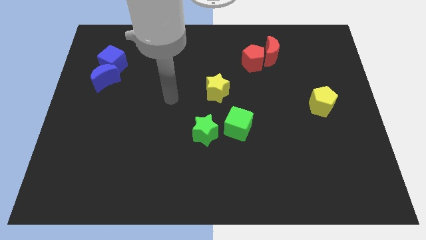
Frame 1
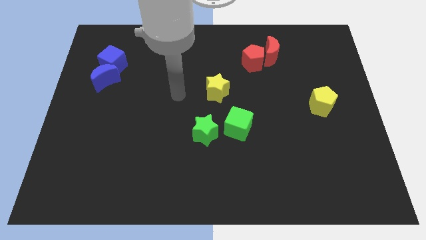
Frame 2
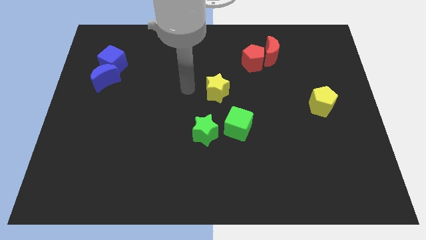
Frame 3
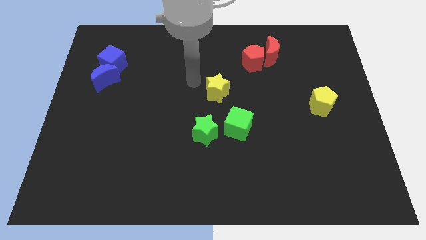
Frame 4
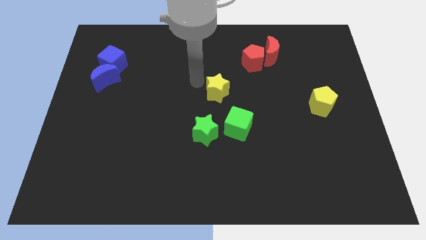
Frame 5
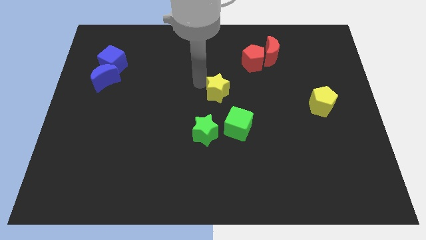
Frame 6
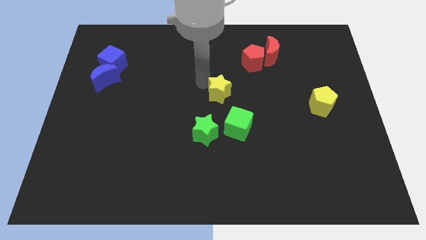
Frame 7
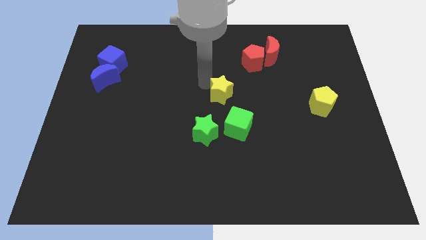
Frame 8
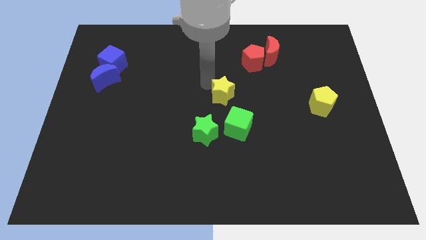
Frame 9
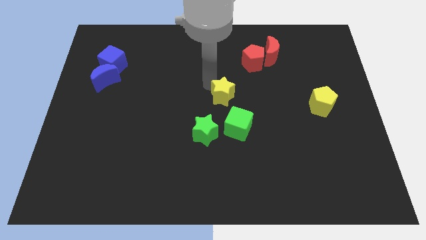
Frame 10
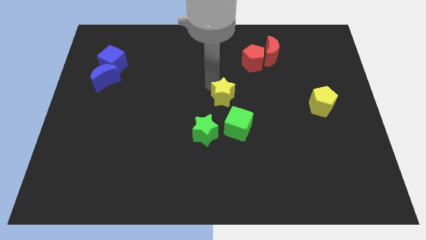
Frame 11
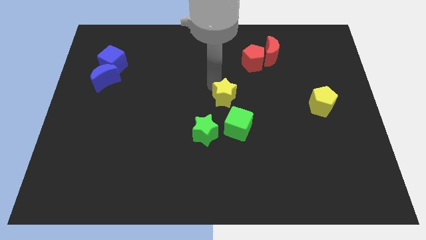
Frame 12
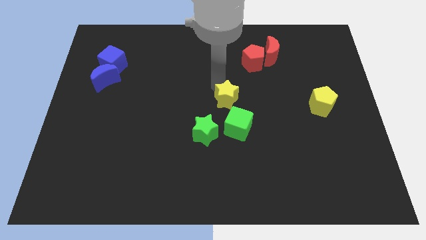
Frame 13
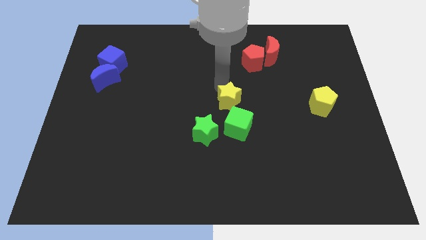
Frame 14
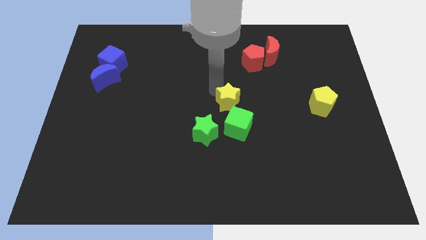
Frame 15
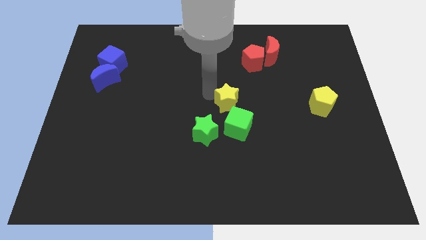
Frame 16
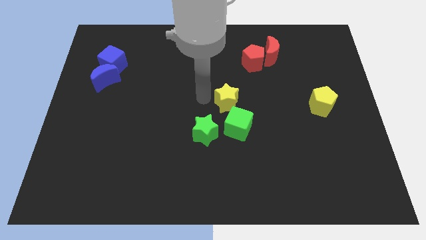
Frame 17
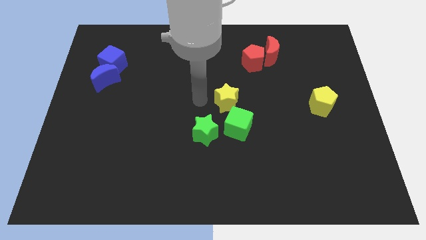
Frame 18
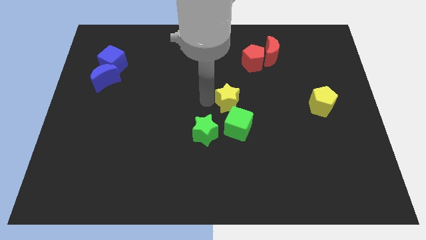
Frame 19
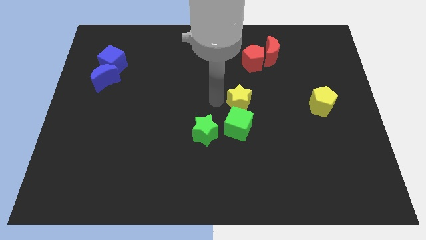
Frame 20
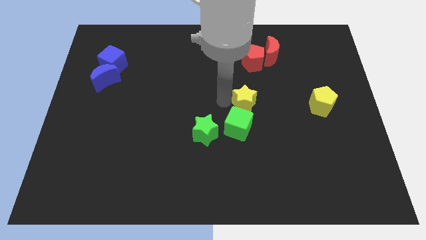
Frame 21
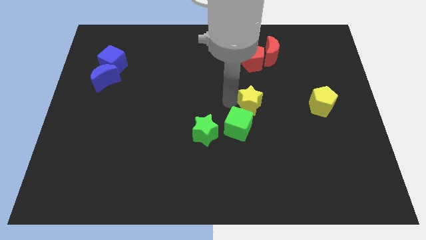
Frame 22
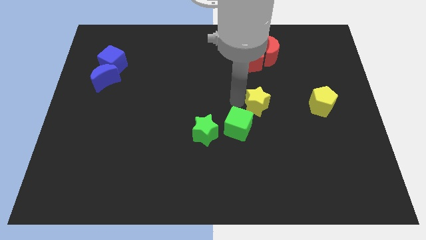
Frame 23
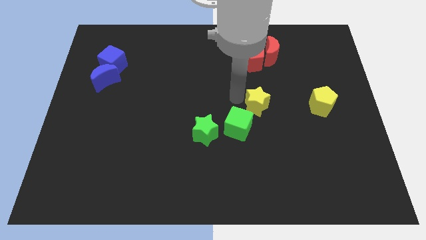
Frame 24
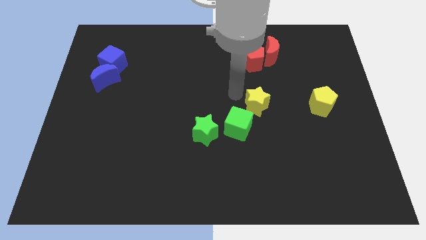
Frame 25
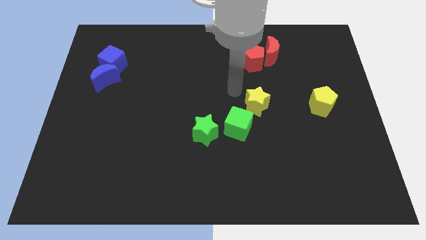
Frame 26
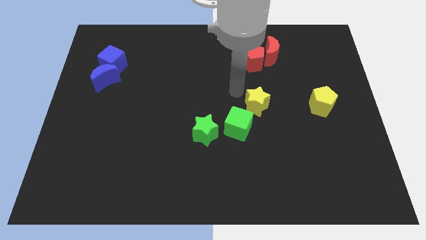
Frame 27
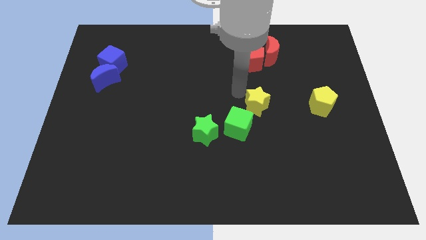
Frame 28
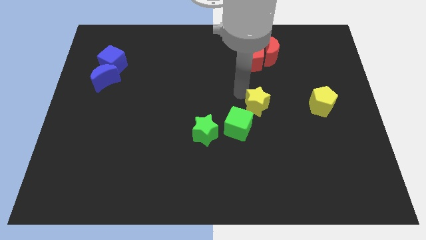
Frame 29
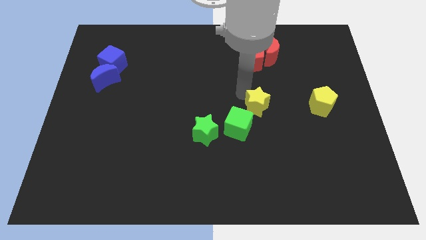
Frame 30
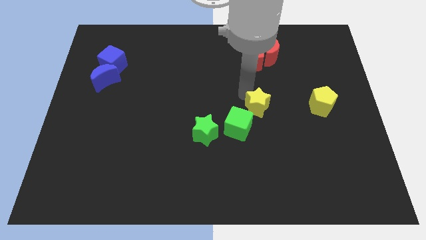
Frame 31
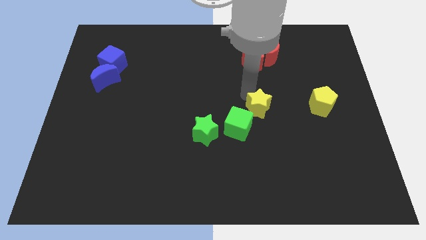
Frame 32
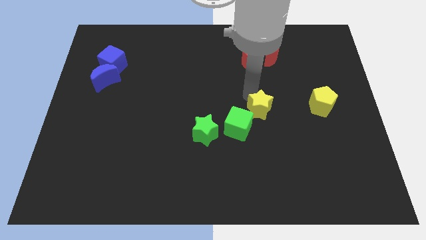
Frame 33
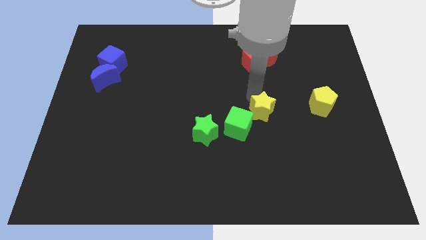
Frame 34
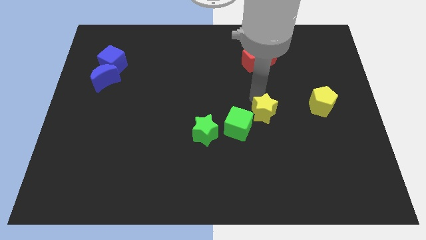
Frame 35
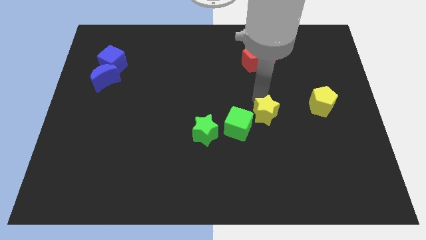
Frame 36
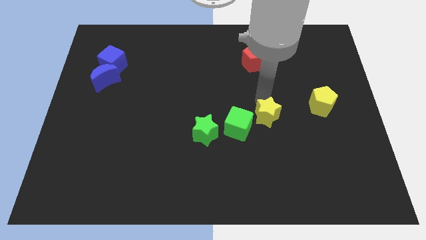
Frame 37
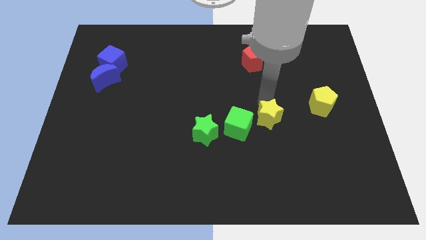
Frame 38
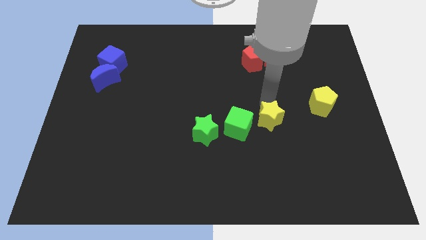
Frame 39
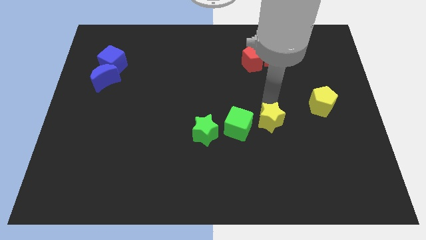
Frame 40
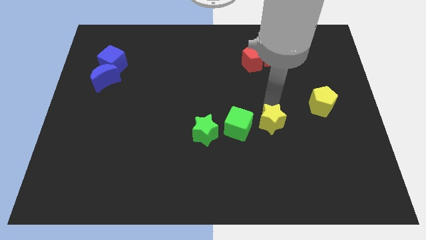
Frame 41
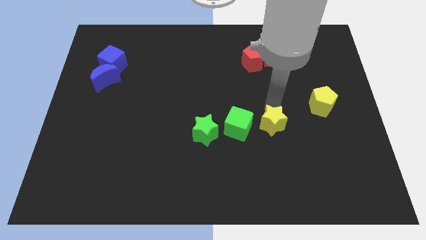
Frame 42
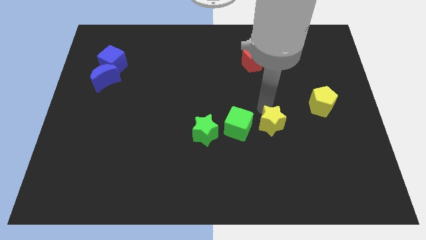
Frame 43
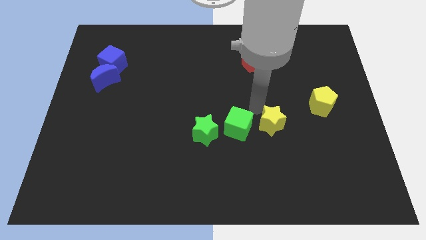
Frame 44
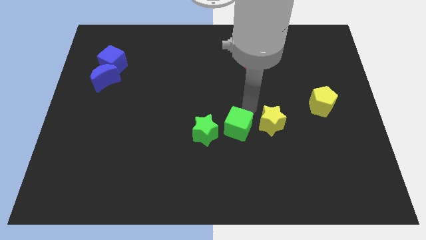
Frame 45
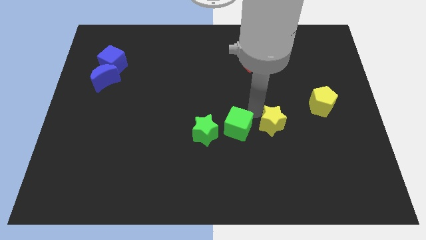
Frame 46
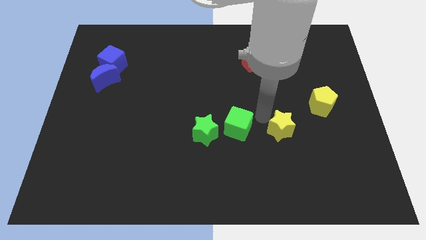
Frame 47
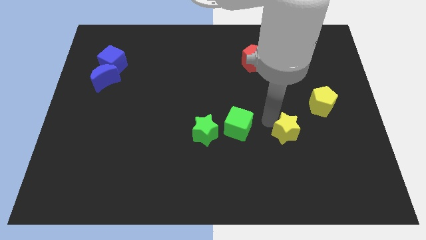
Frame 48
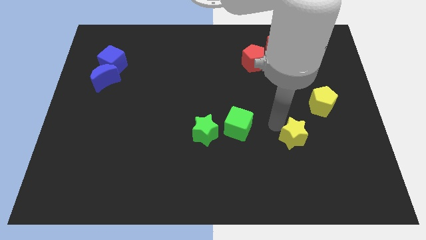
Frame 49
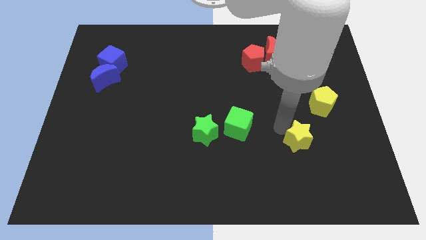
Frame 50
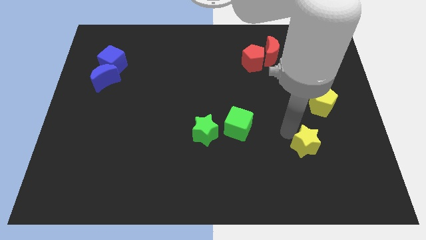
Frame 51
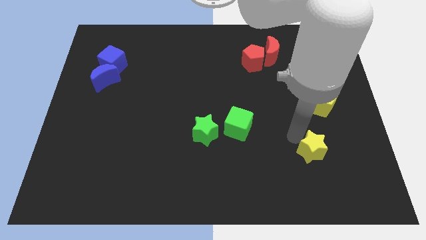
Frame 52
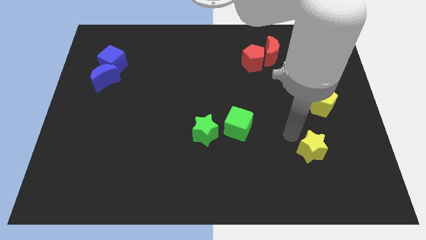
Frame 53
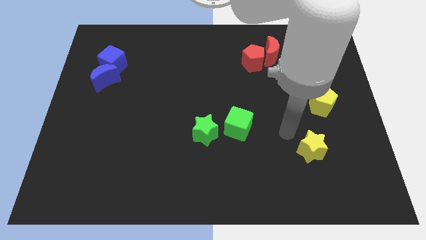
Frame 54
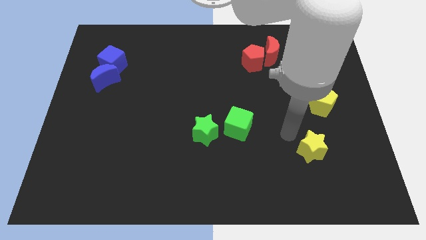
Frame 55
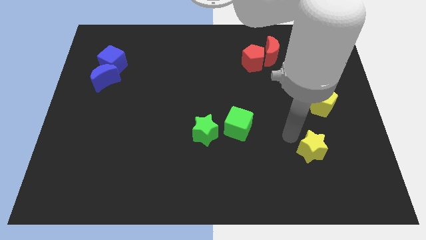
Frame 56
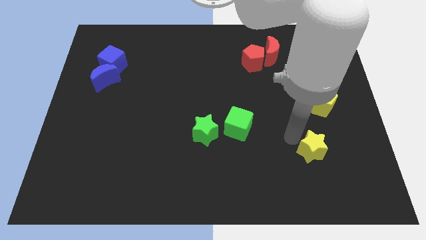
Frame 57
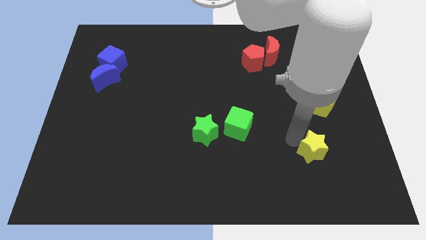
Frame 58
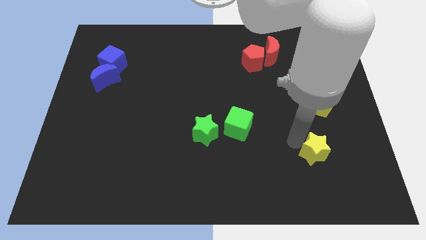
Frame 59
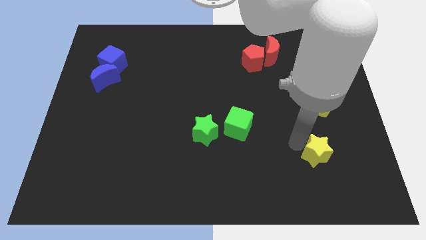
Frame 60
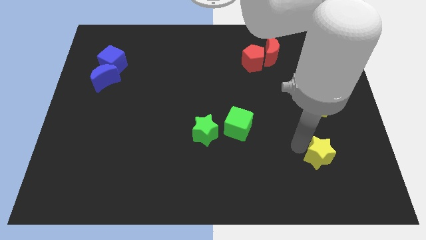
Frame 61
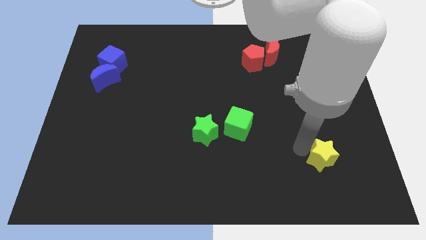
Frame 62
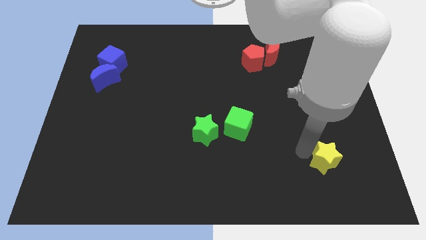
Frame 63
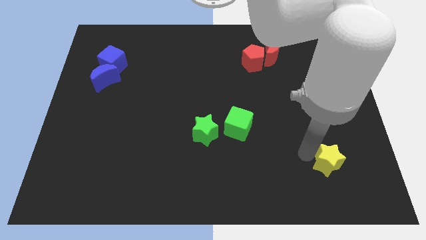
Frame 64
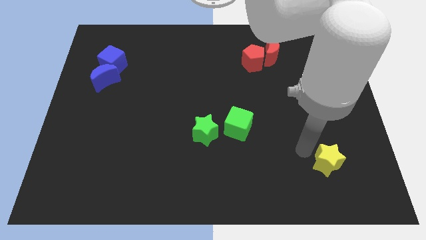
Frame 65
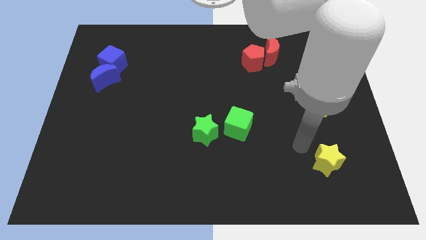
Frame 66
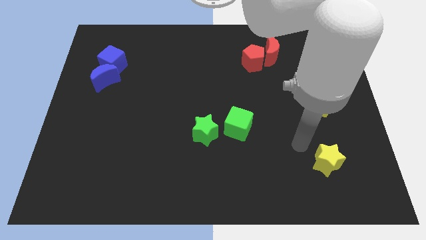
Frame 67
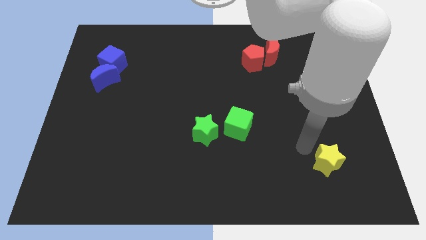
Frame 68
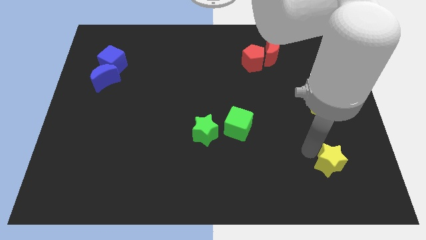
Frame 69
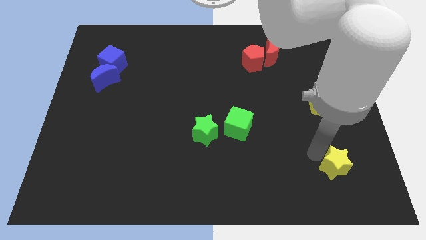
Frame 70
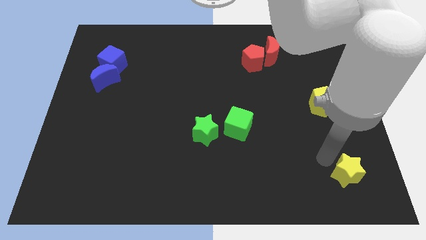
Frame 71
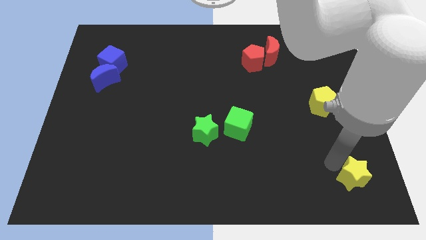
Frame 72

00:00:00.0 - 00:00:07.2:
put the yellow star to the bottom right corner
